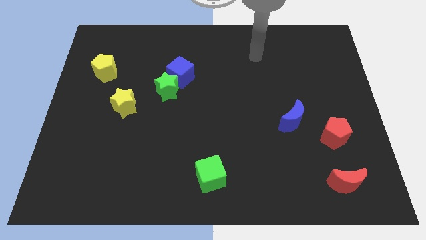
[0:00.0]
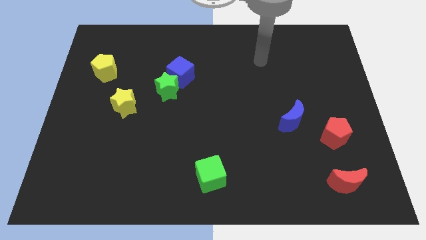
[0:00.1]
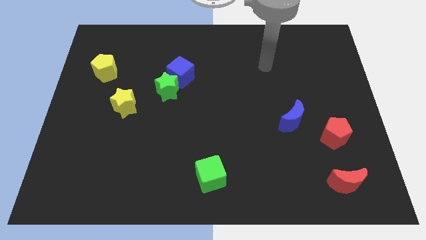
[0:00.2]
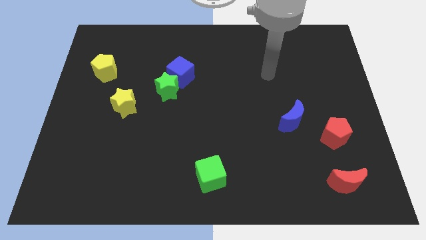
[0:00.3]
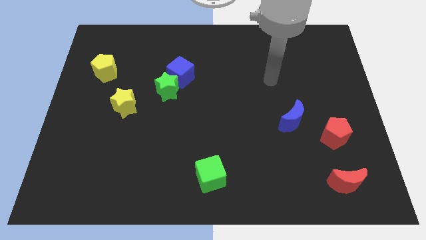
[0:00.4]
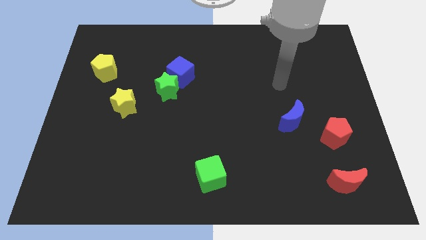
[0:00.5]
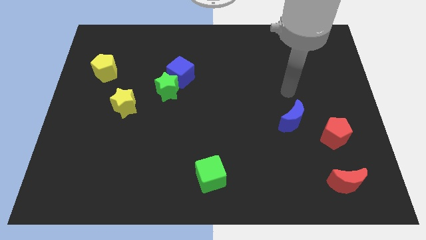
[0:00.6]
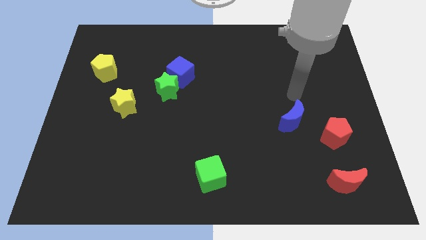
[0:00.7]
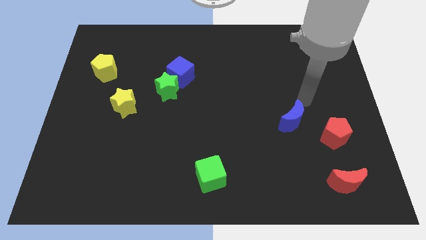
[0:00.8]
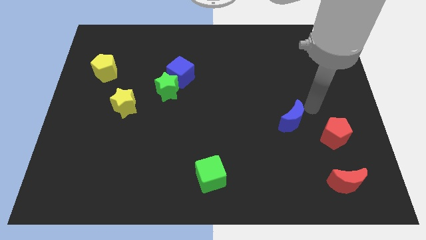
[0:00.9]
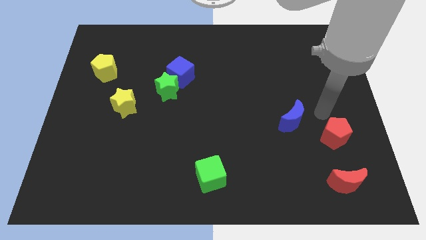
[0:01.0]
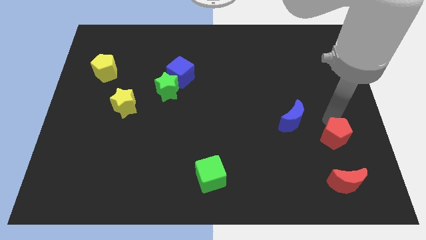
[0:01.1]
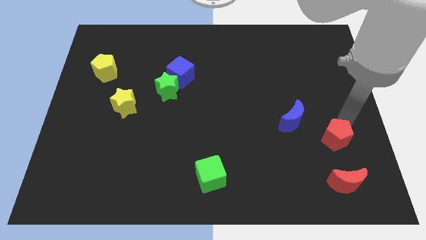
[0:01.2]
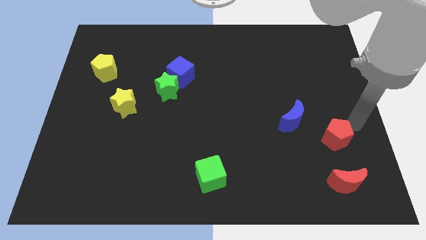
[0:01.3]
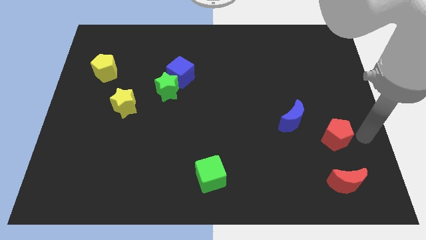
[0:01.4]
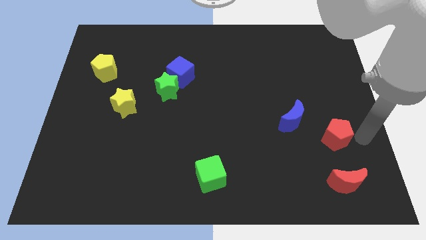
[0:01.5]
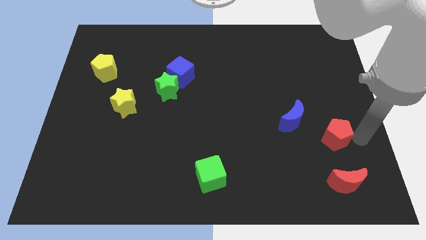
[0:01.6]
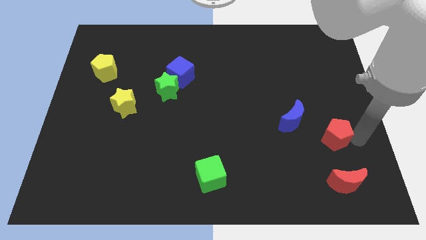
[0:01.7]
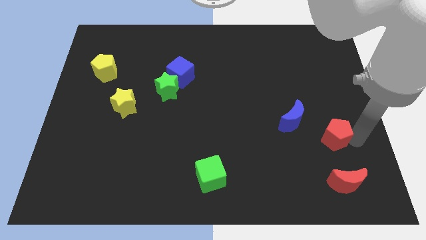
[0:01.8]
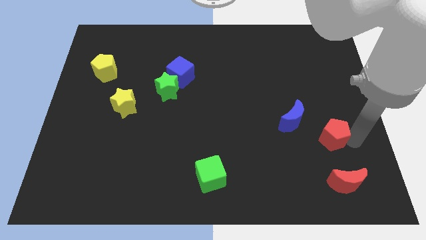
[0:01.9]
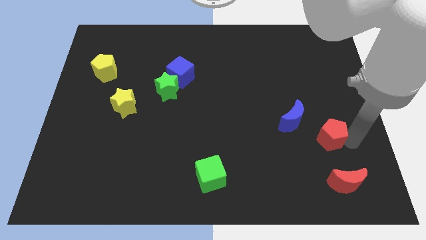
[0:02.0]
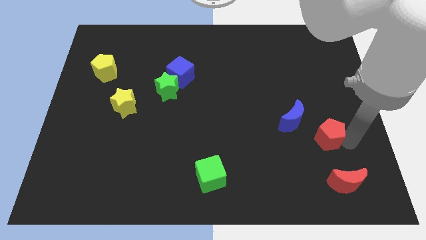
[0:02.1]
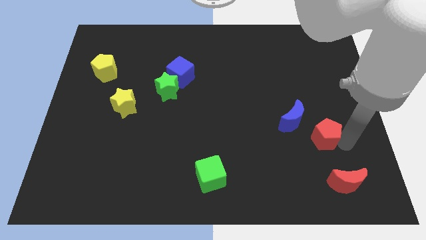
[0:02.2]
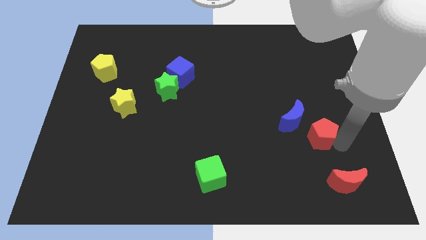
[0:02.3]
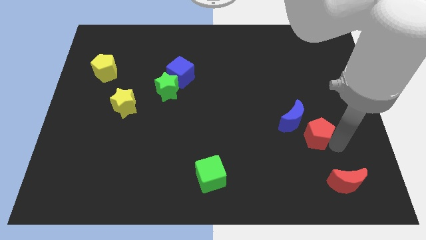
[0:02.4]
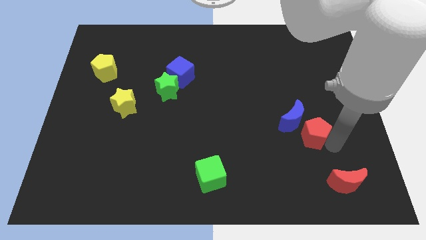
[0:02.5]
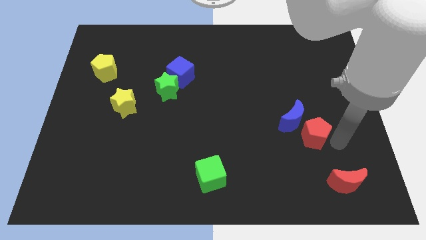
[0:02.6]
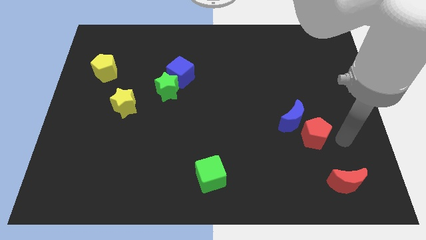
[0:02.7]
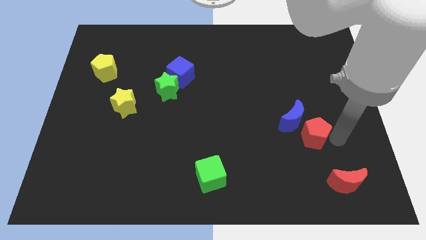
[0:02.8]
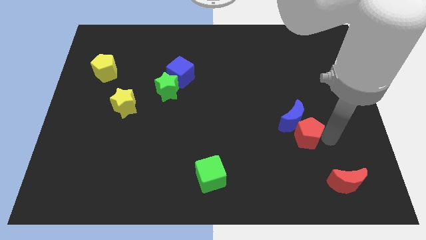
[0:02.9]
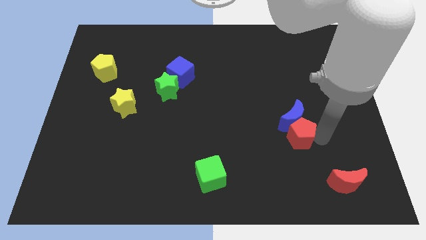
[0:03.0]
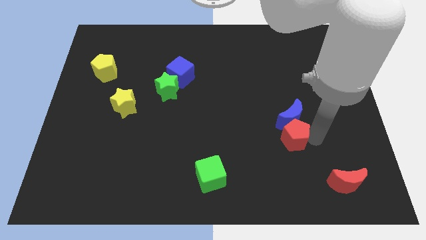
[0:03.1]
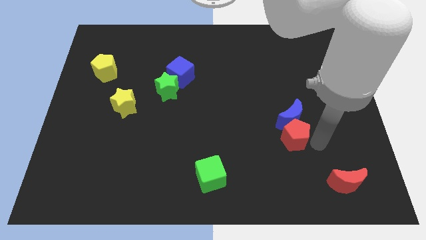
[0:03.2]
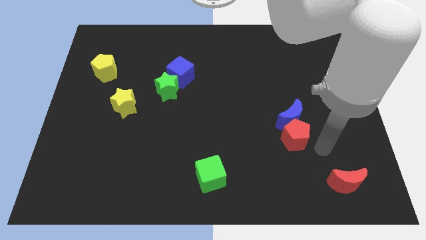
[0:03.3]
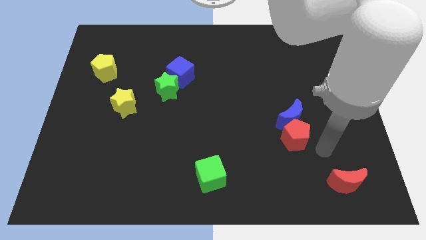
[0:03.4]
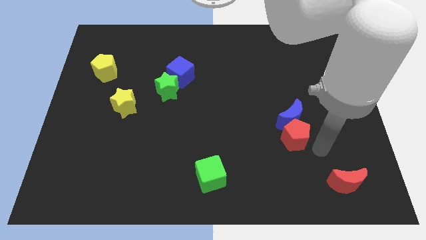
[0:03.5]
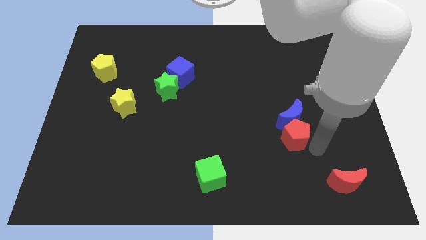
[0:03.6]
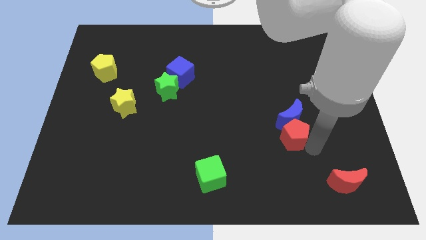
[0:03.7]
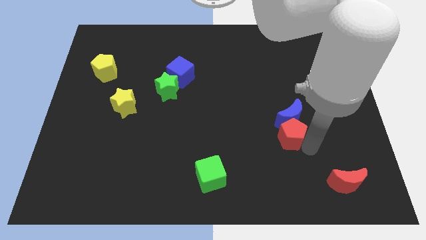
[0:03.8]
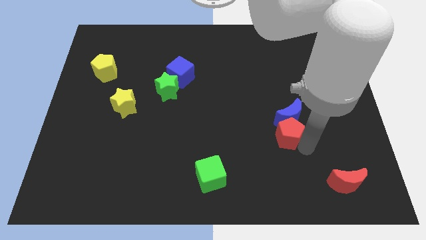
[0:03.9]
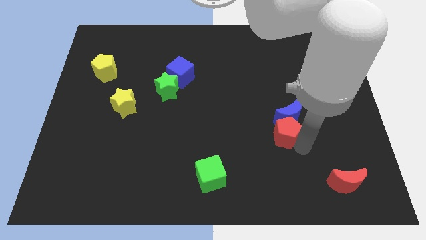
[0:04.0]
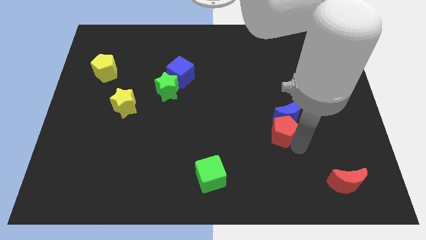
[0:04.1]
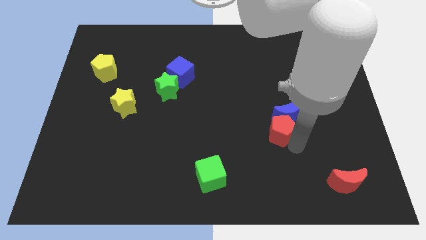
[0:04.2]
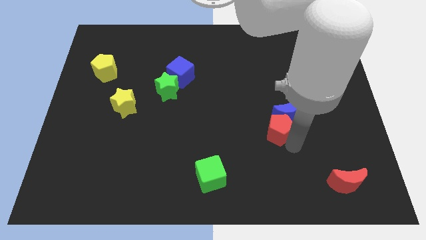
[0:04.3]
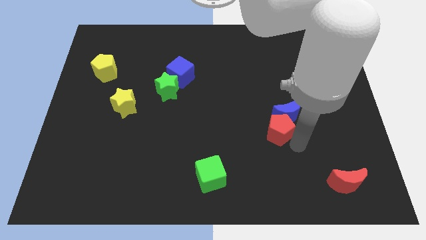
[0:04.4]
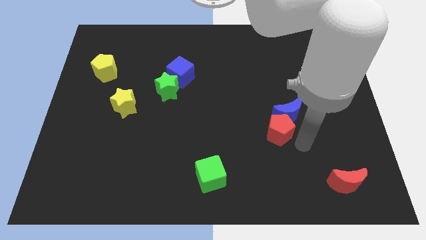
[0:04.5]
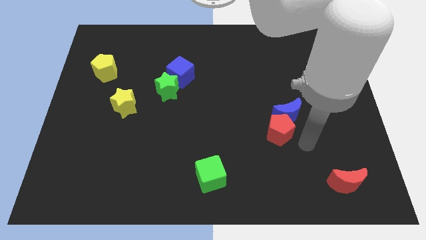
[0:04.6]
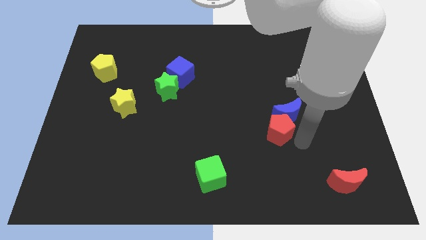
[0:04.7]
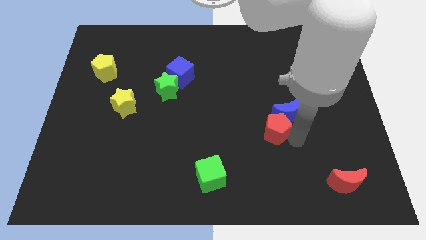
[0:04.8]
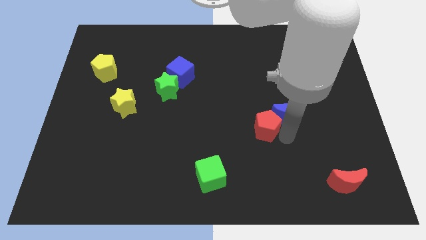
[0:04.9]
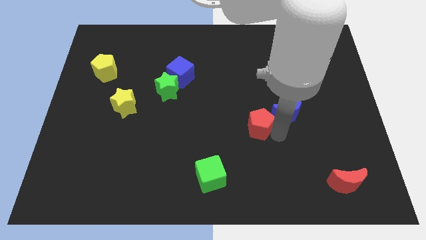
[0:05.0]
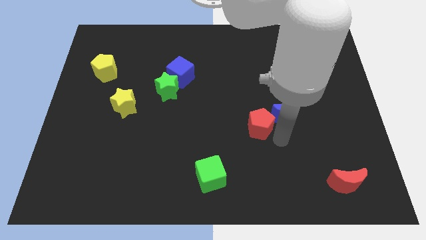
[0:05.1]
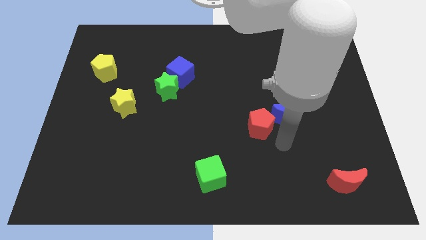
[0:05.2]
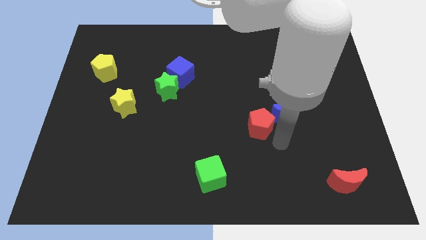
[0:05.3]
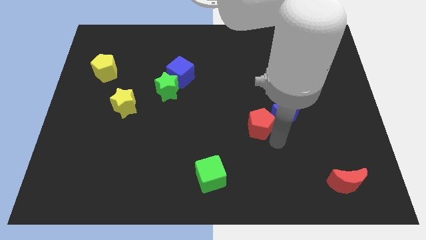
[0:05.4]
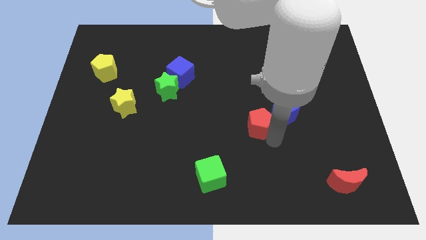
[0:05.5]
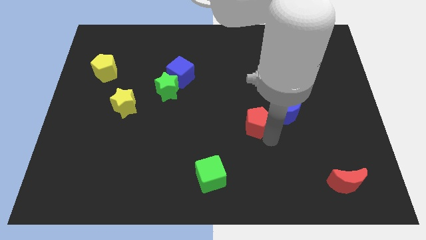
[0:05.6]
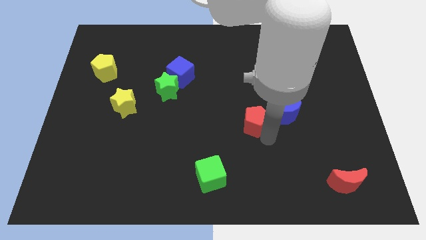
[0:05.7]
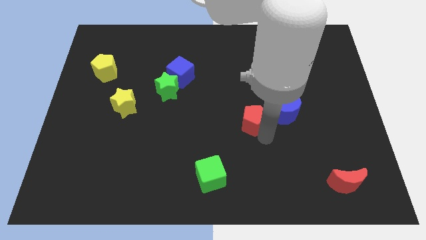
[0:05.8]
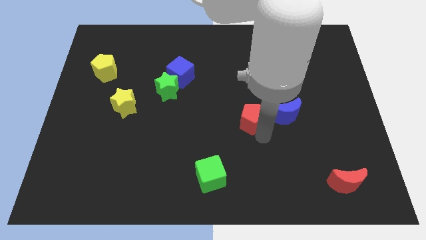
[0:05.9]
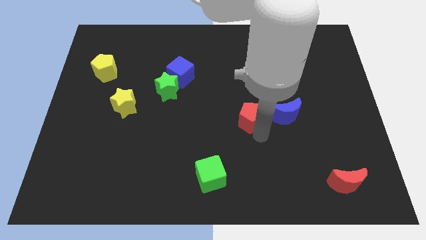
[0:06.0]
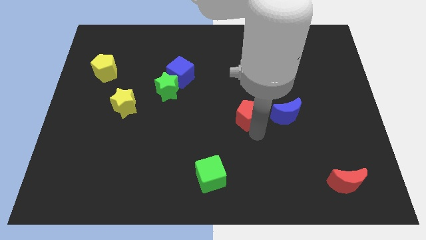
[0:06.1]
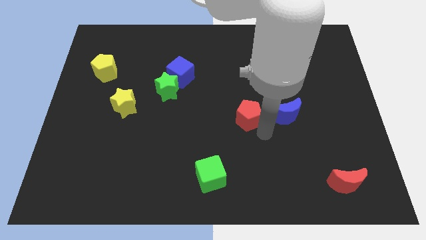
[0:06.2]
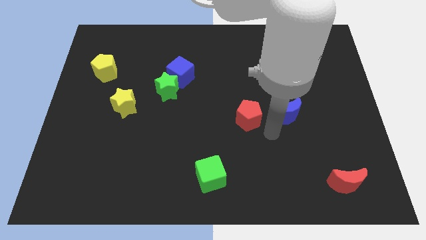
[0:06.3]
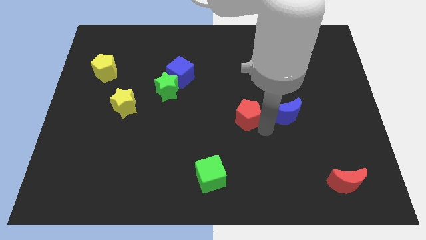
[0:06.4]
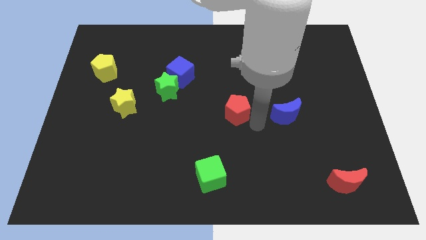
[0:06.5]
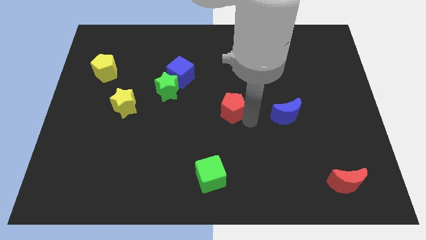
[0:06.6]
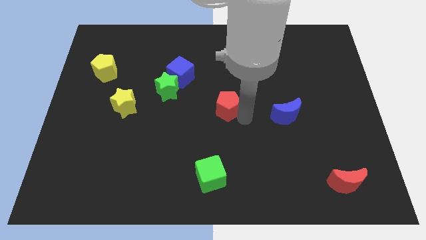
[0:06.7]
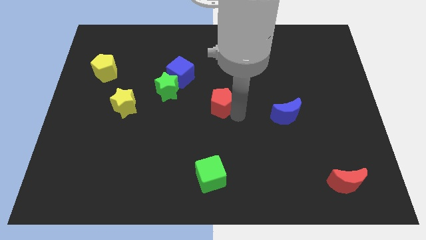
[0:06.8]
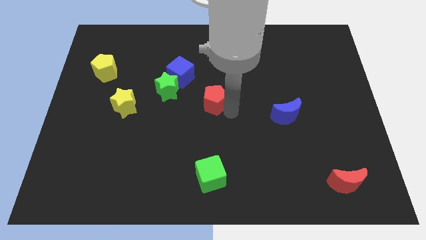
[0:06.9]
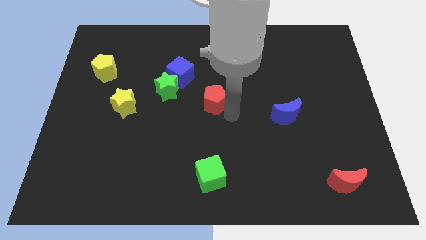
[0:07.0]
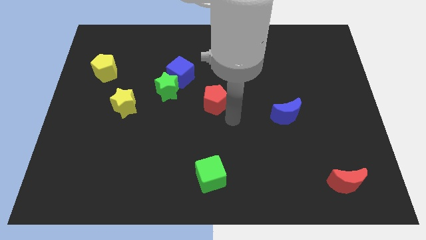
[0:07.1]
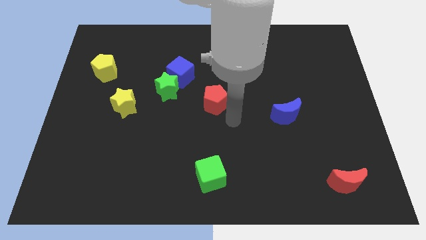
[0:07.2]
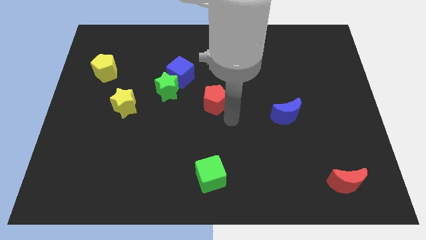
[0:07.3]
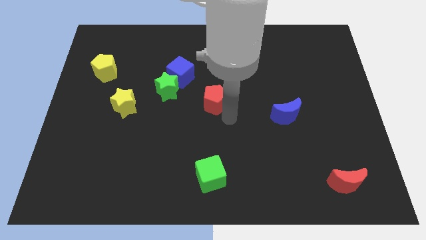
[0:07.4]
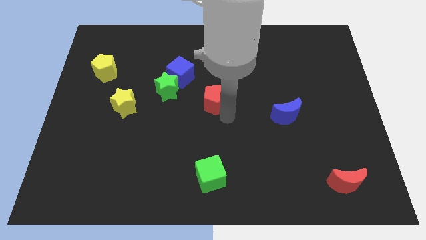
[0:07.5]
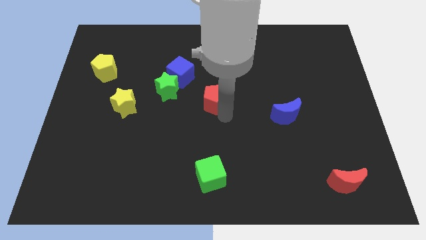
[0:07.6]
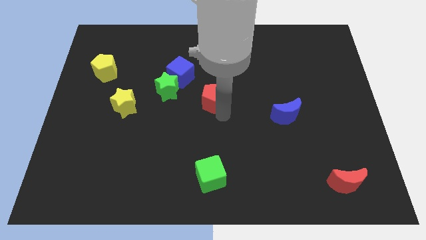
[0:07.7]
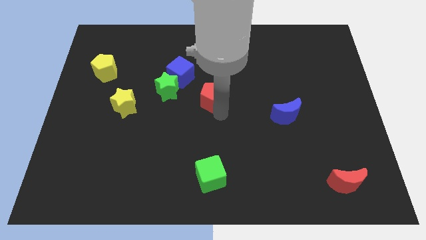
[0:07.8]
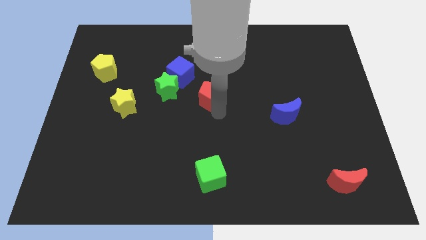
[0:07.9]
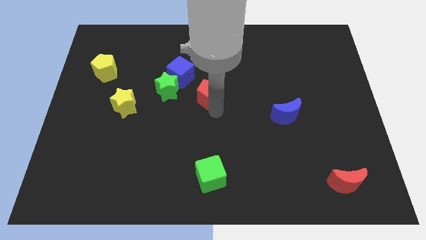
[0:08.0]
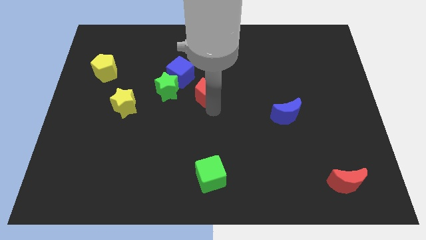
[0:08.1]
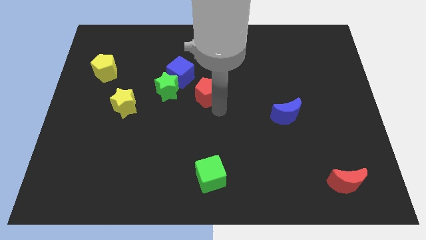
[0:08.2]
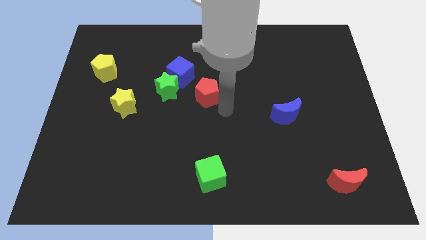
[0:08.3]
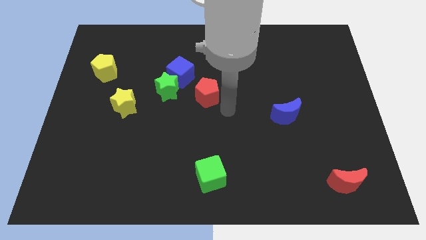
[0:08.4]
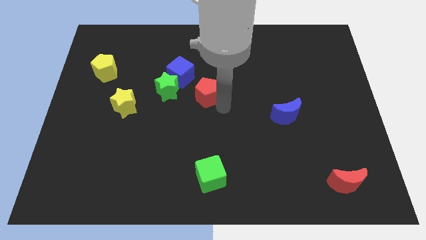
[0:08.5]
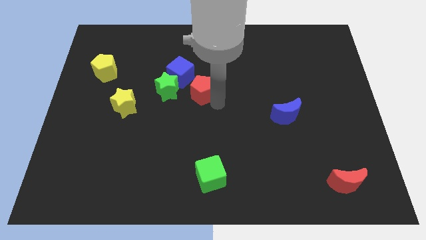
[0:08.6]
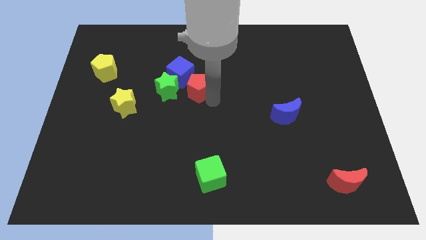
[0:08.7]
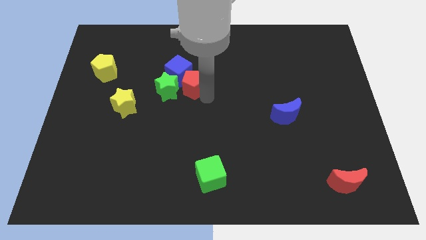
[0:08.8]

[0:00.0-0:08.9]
move the red pentagon towards the blue cube
